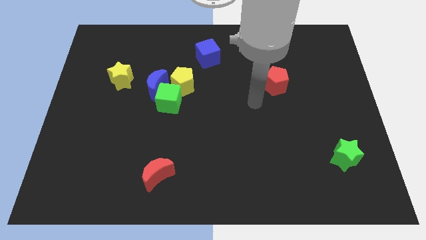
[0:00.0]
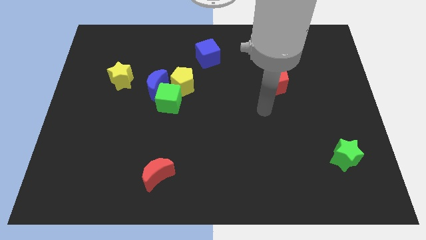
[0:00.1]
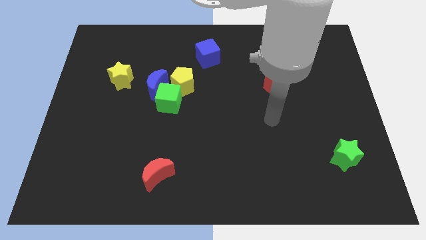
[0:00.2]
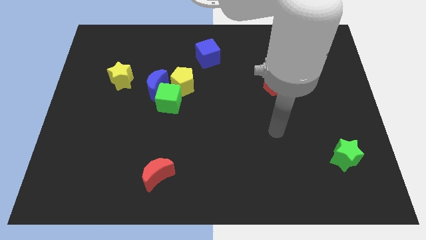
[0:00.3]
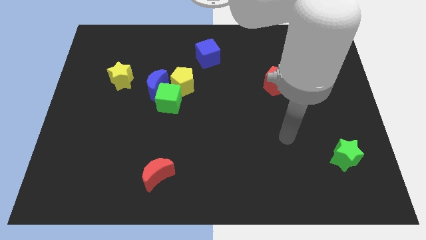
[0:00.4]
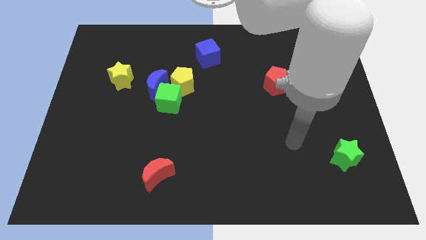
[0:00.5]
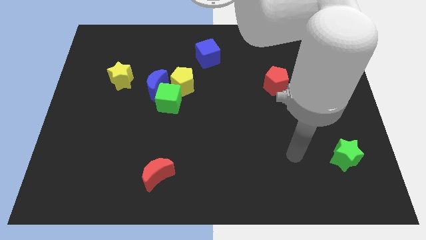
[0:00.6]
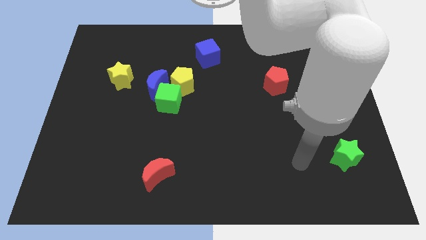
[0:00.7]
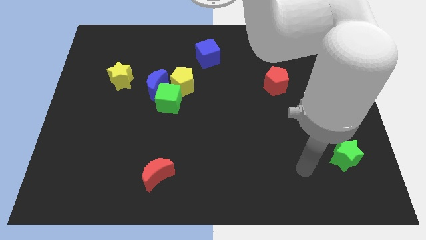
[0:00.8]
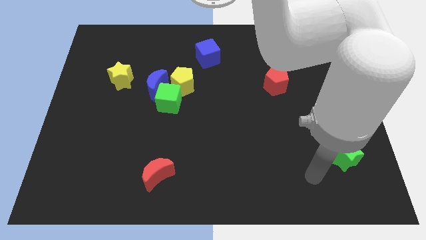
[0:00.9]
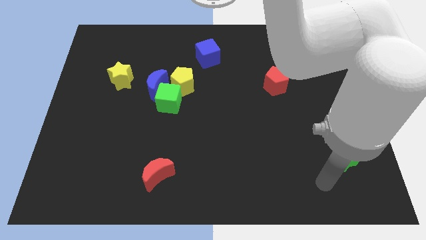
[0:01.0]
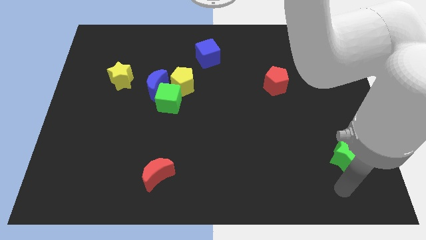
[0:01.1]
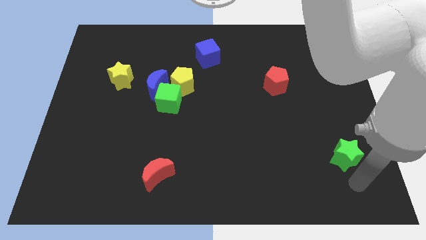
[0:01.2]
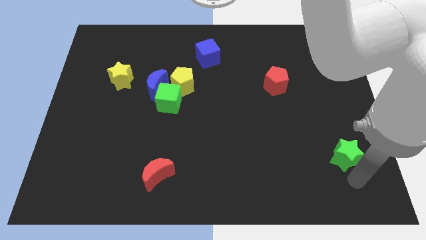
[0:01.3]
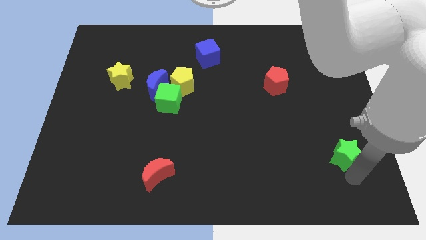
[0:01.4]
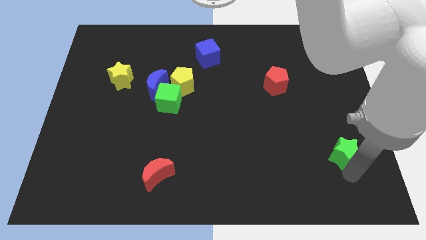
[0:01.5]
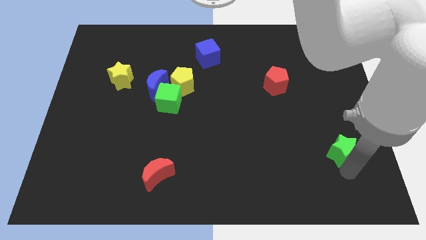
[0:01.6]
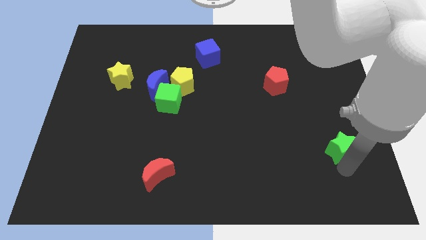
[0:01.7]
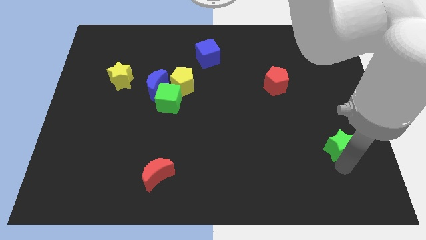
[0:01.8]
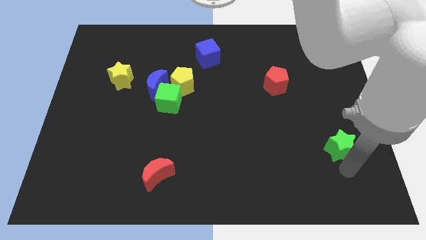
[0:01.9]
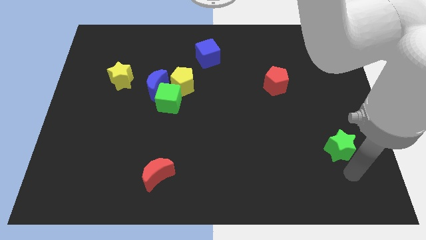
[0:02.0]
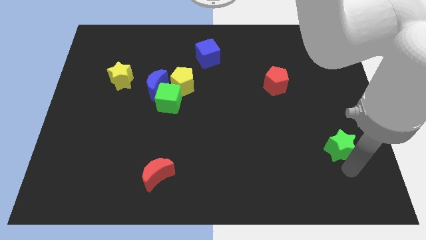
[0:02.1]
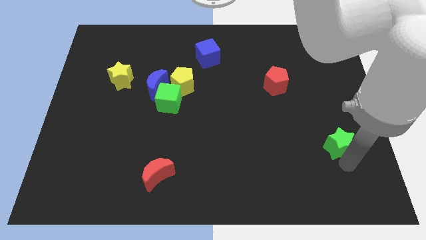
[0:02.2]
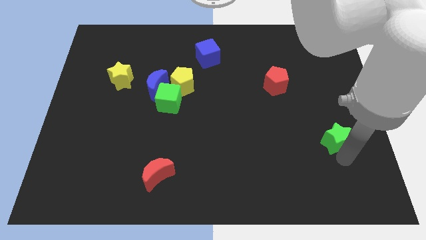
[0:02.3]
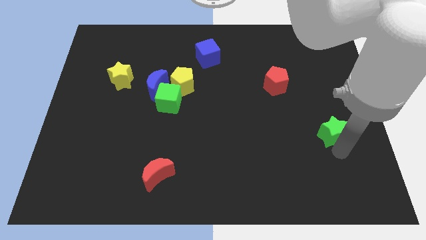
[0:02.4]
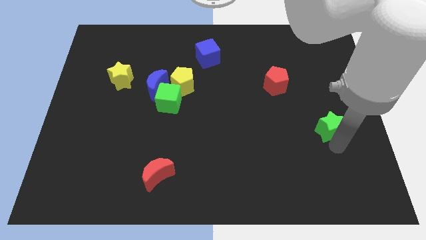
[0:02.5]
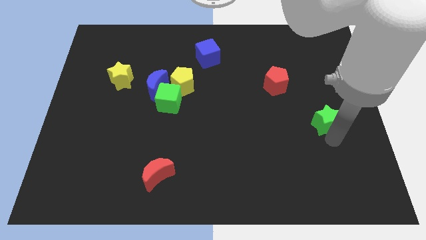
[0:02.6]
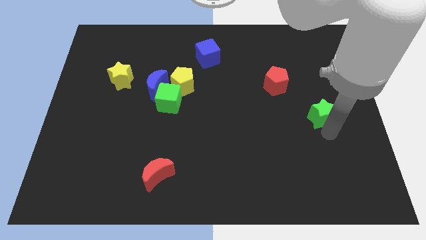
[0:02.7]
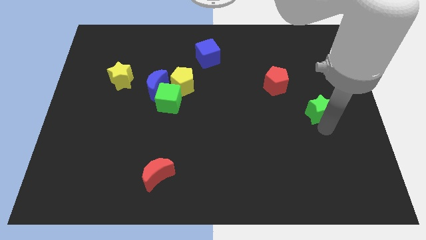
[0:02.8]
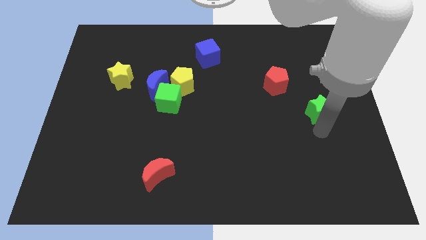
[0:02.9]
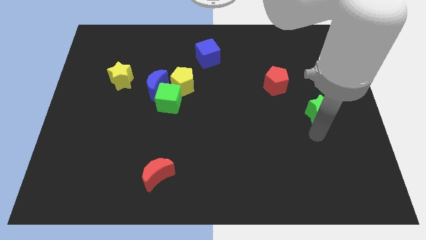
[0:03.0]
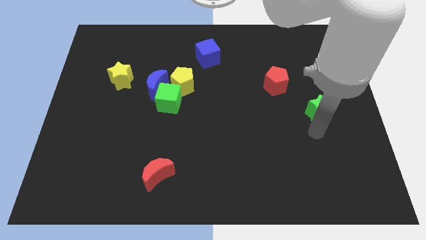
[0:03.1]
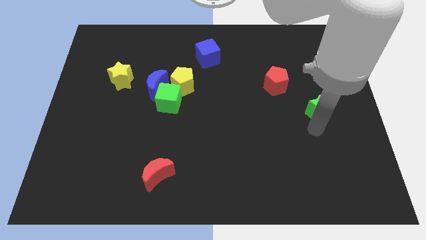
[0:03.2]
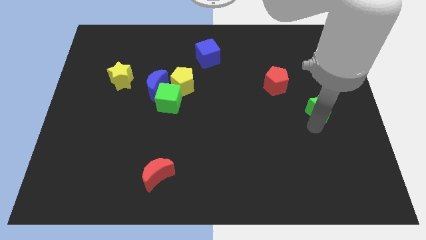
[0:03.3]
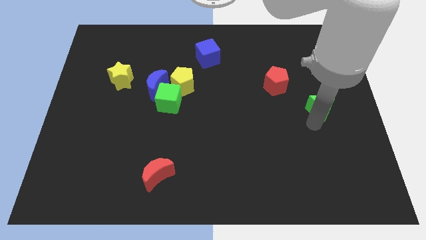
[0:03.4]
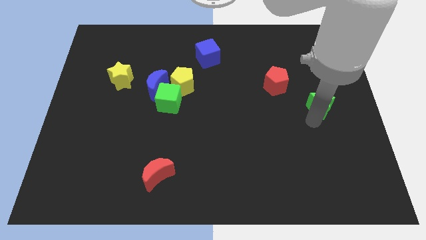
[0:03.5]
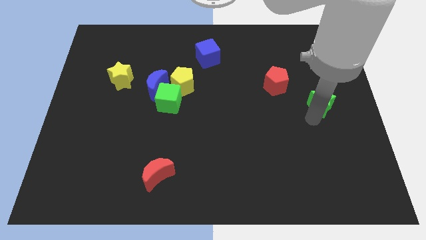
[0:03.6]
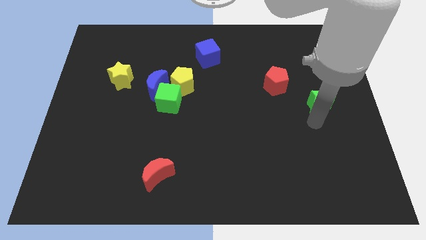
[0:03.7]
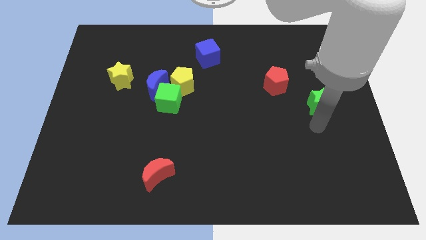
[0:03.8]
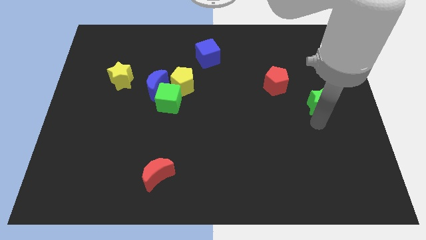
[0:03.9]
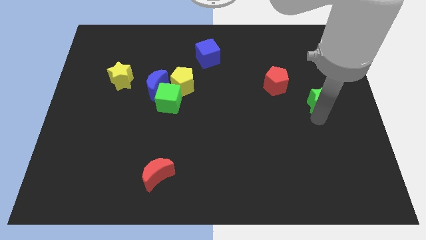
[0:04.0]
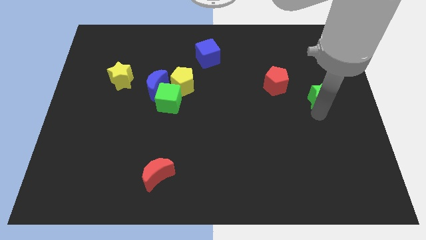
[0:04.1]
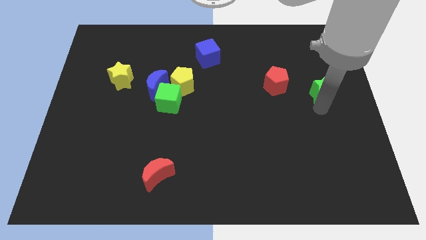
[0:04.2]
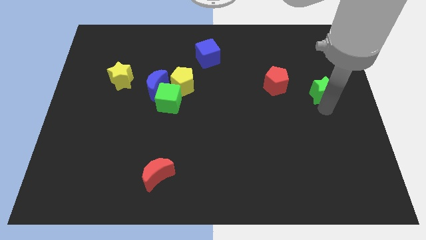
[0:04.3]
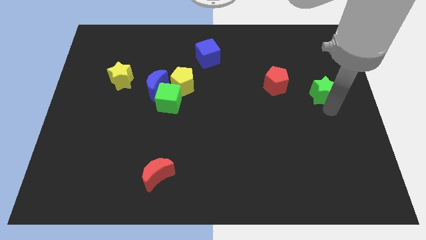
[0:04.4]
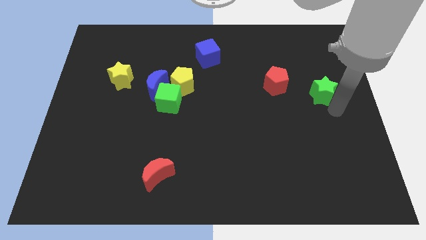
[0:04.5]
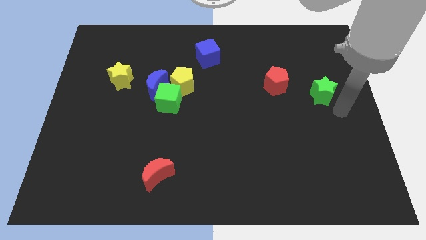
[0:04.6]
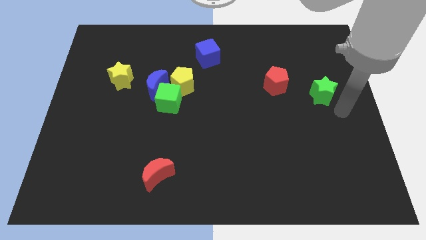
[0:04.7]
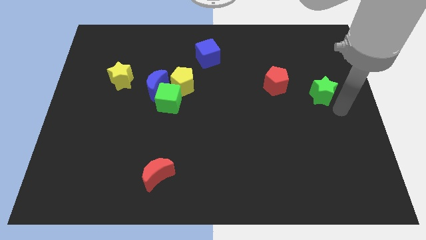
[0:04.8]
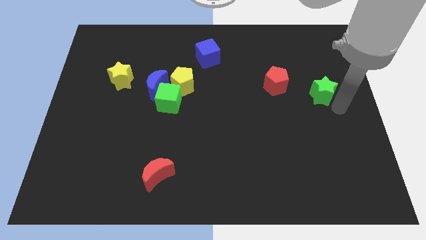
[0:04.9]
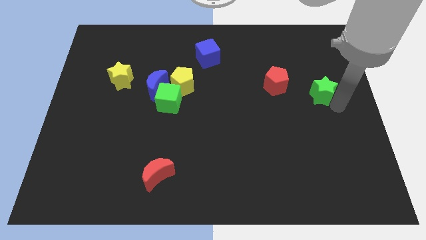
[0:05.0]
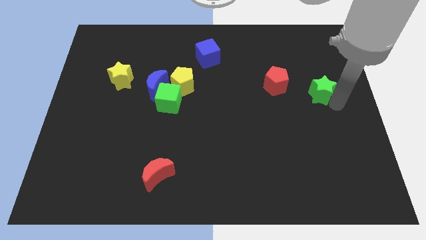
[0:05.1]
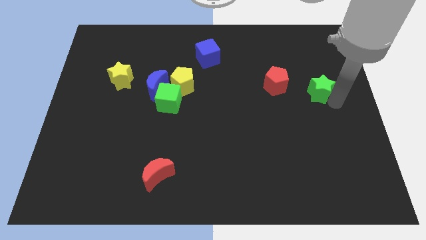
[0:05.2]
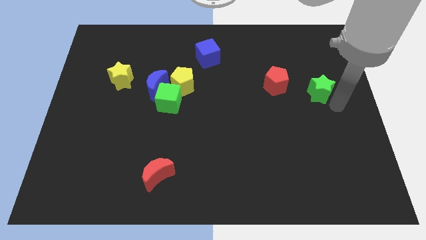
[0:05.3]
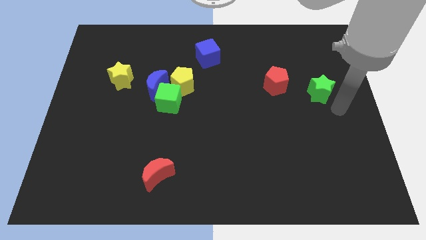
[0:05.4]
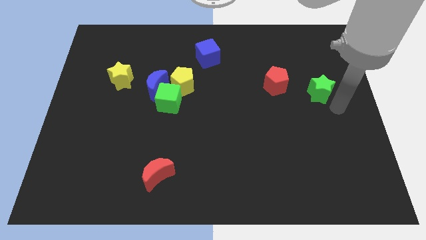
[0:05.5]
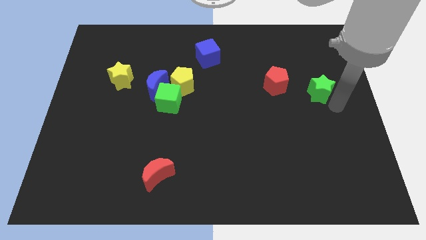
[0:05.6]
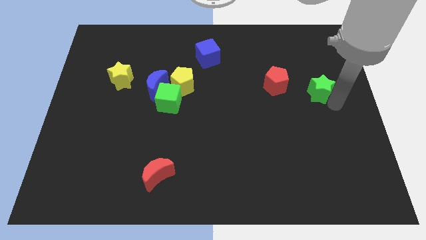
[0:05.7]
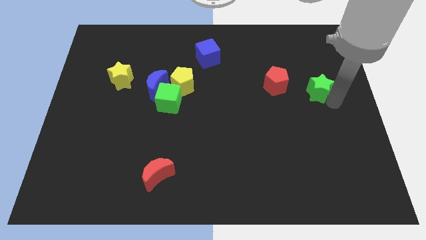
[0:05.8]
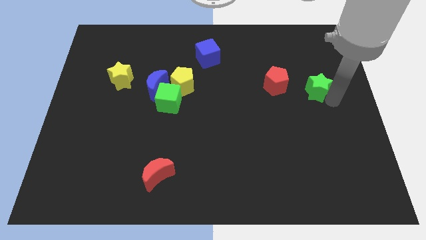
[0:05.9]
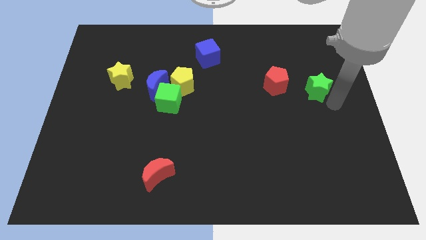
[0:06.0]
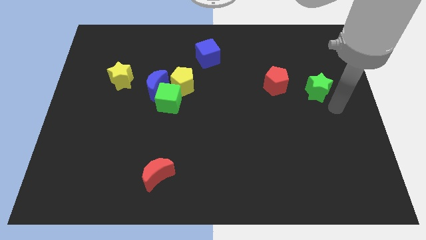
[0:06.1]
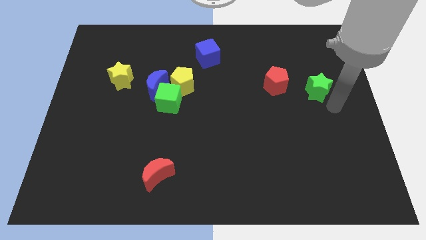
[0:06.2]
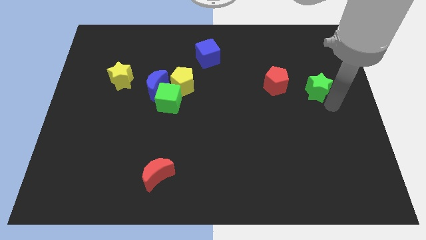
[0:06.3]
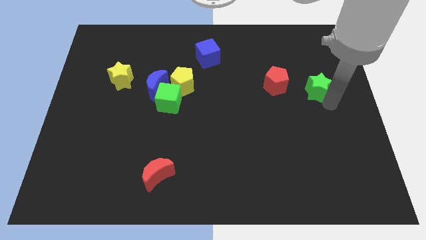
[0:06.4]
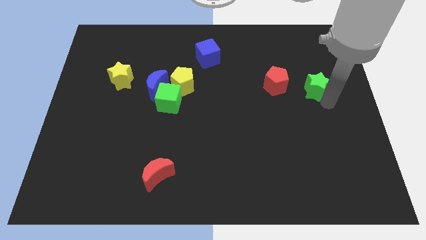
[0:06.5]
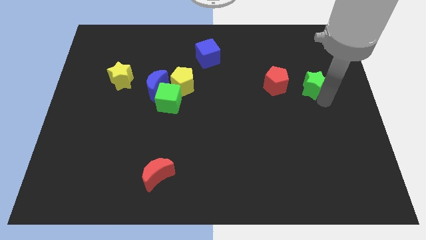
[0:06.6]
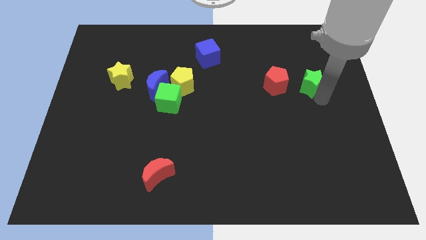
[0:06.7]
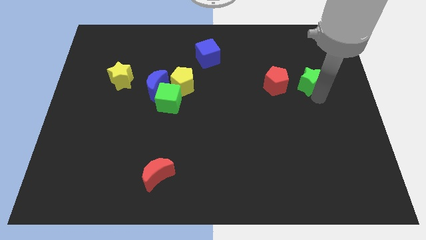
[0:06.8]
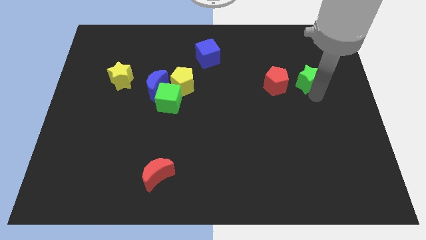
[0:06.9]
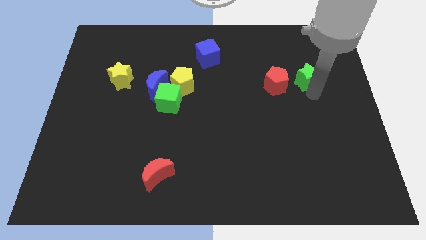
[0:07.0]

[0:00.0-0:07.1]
push the green star diagonally up and to the right of the red pentagon
